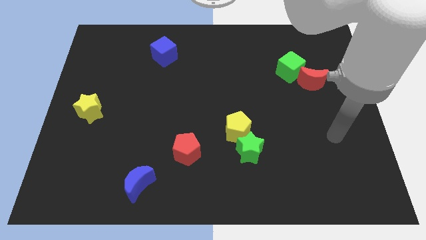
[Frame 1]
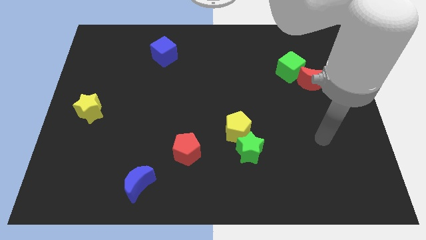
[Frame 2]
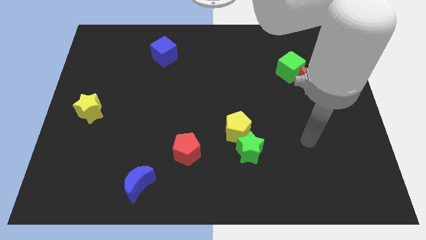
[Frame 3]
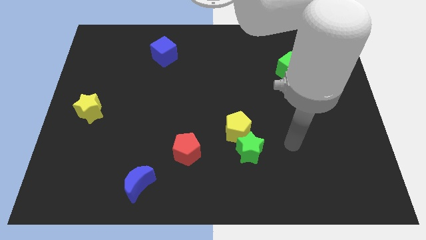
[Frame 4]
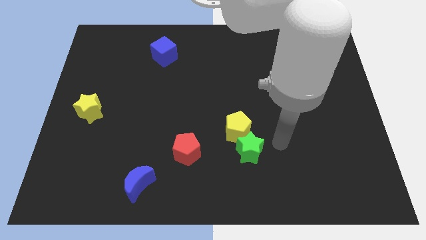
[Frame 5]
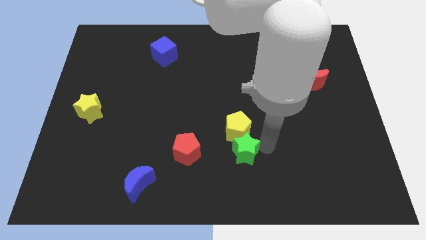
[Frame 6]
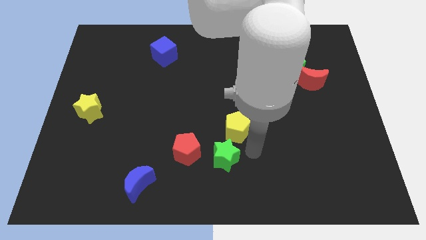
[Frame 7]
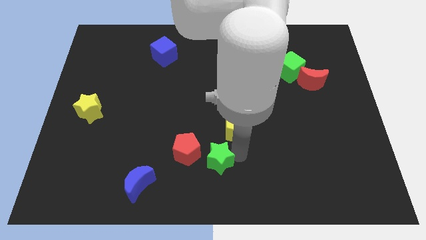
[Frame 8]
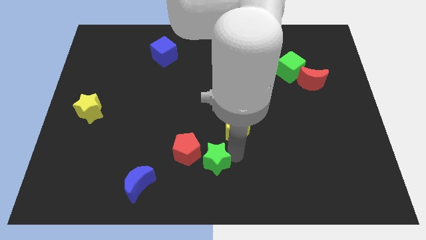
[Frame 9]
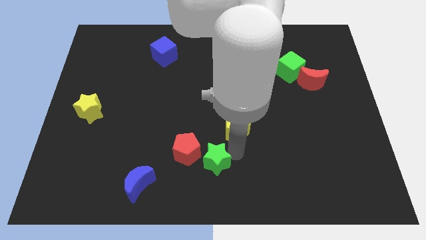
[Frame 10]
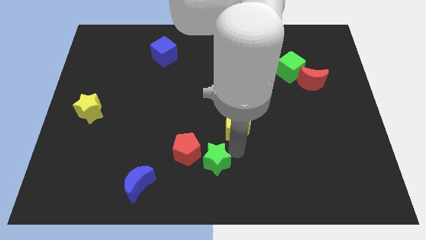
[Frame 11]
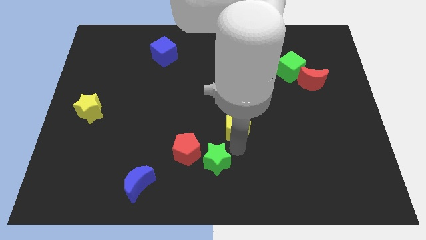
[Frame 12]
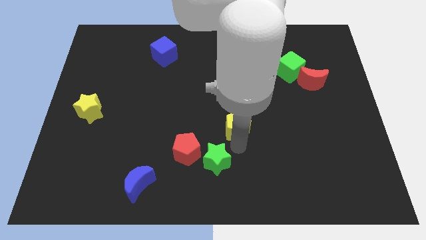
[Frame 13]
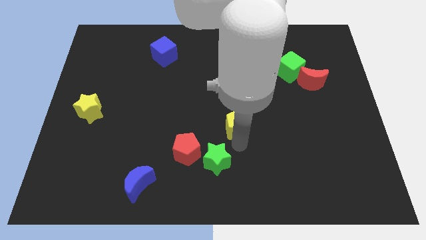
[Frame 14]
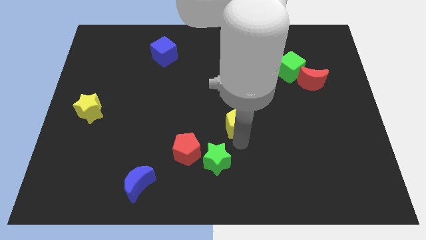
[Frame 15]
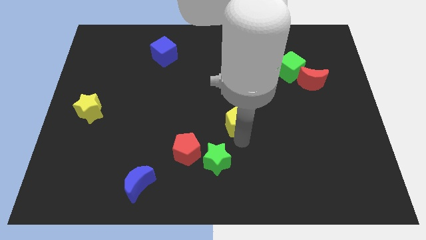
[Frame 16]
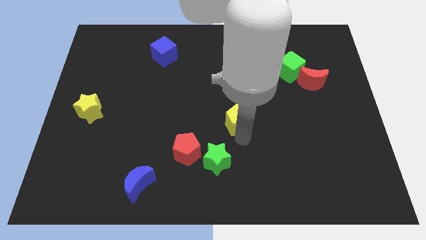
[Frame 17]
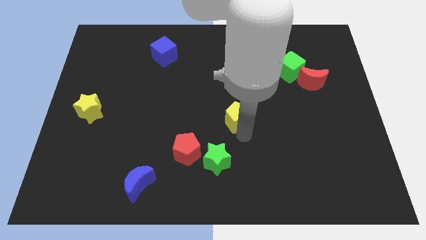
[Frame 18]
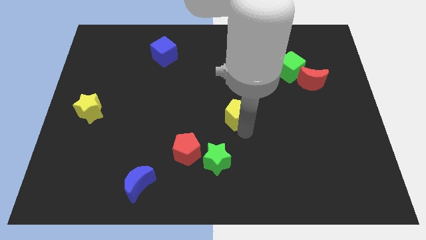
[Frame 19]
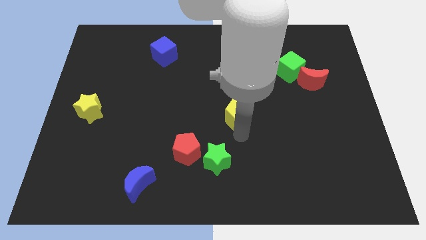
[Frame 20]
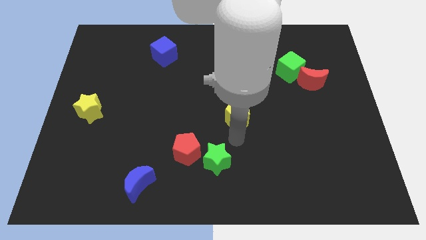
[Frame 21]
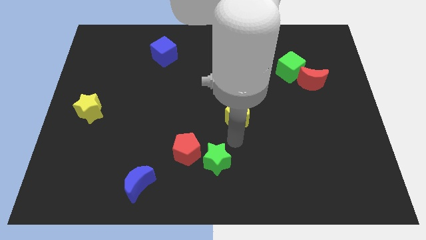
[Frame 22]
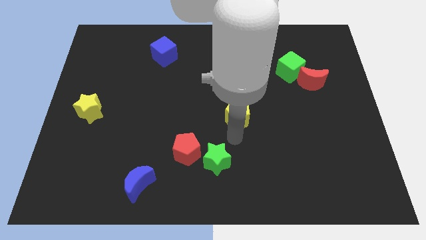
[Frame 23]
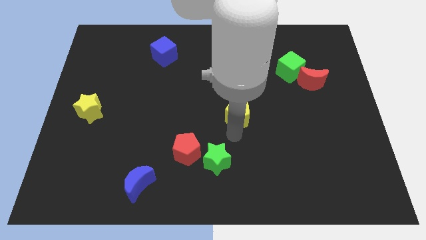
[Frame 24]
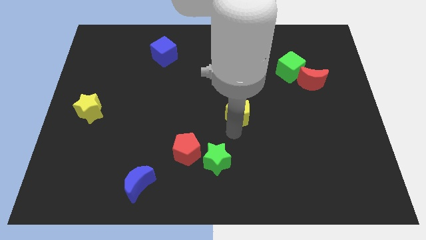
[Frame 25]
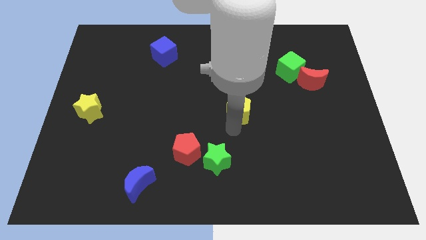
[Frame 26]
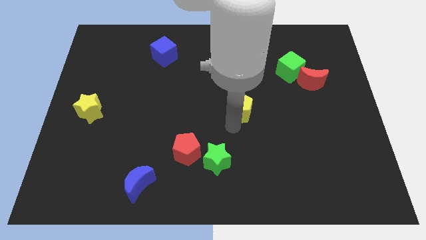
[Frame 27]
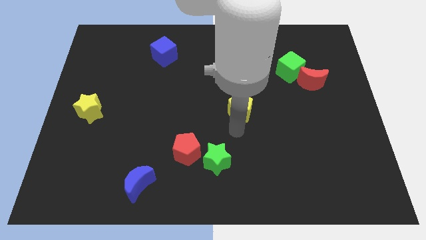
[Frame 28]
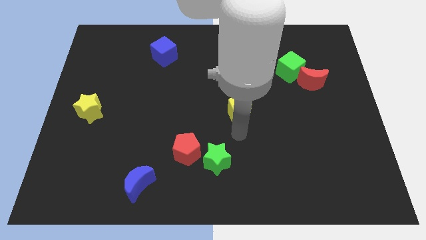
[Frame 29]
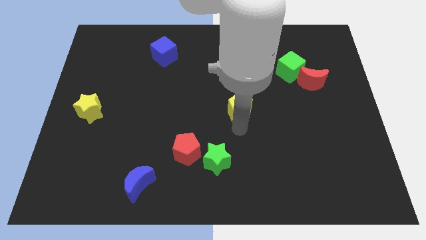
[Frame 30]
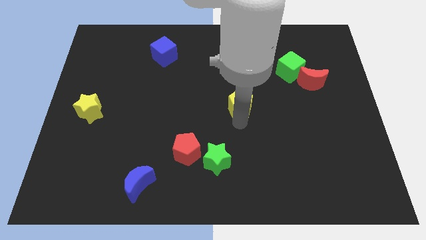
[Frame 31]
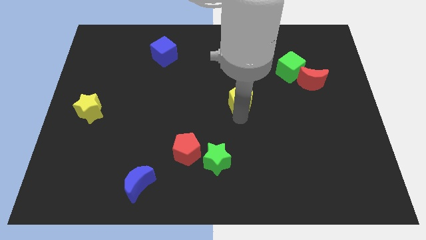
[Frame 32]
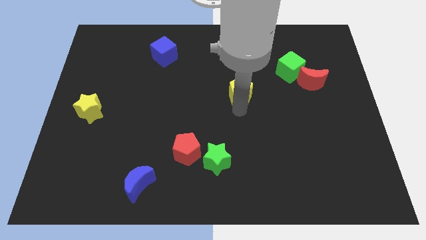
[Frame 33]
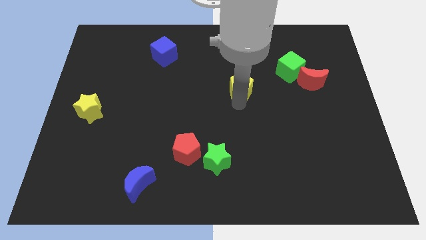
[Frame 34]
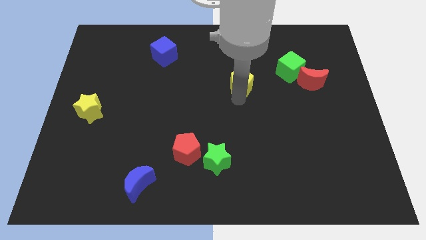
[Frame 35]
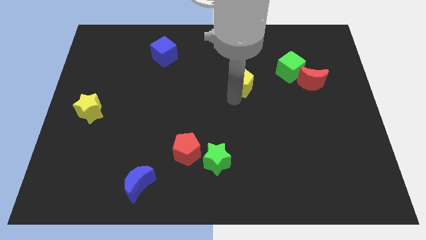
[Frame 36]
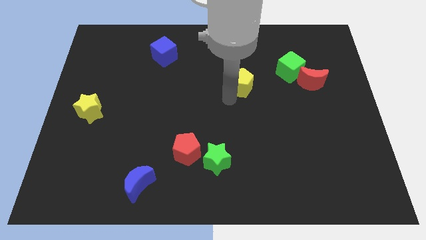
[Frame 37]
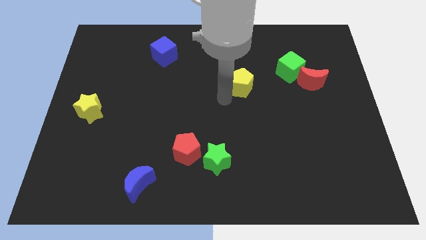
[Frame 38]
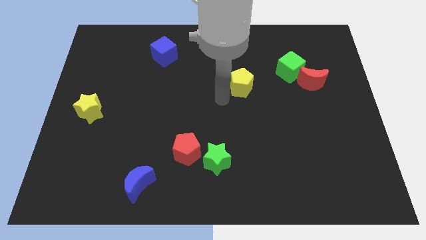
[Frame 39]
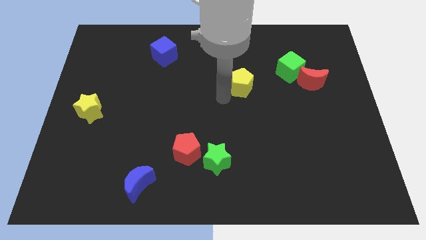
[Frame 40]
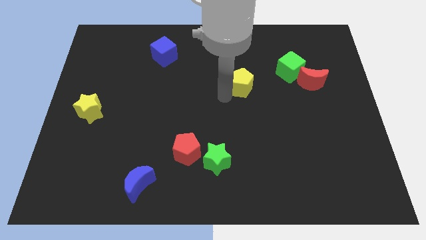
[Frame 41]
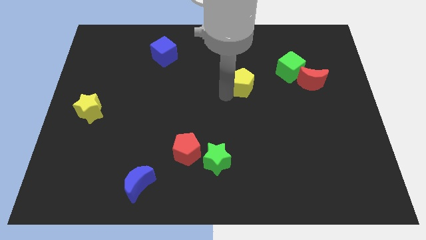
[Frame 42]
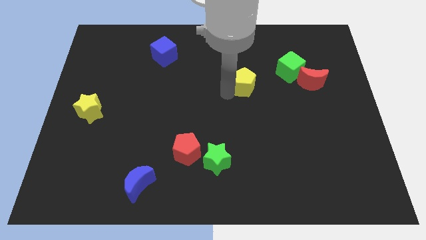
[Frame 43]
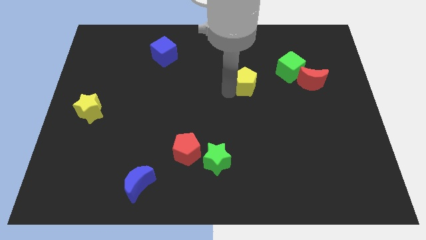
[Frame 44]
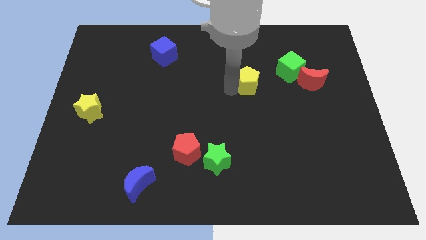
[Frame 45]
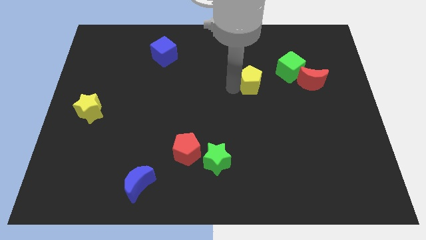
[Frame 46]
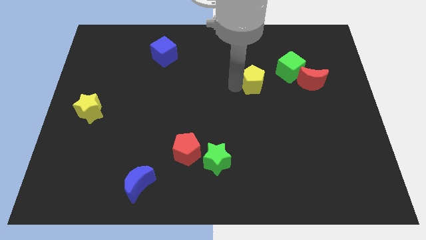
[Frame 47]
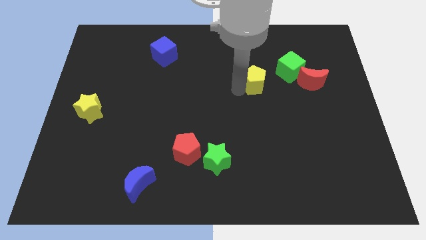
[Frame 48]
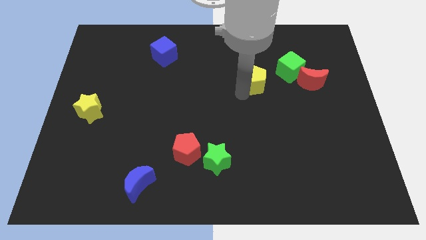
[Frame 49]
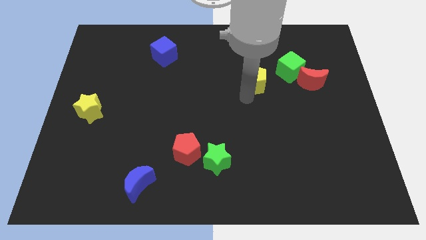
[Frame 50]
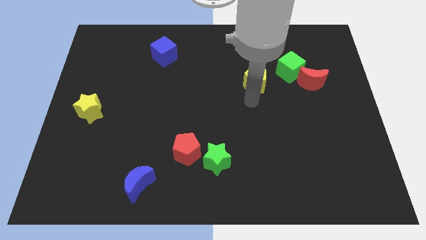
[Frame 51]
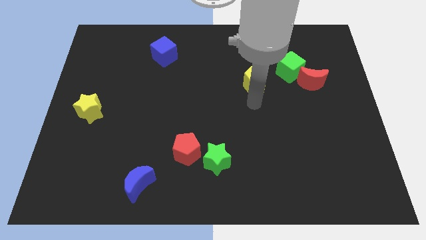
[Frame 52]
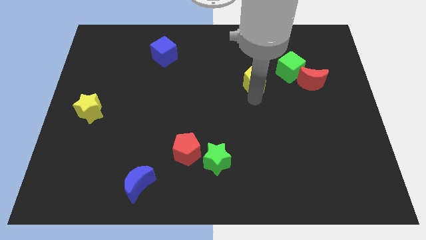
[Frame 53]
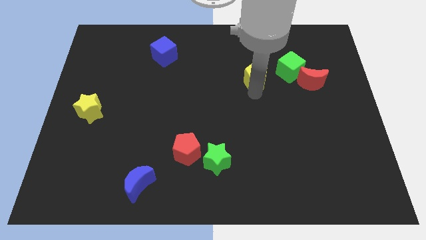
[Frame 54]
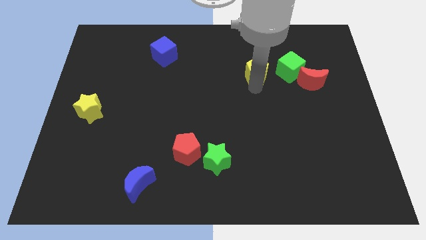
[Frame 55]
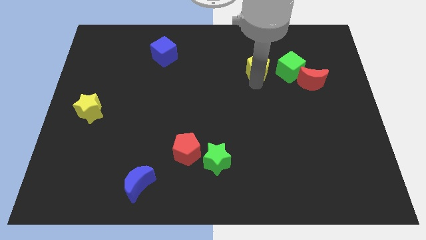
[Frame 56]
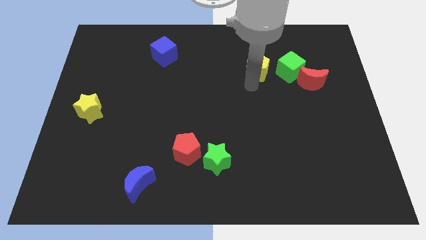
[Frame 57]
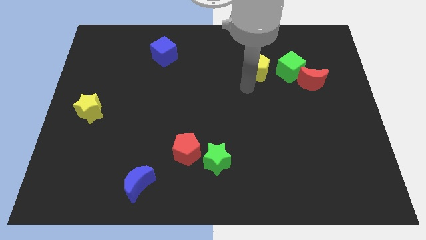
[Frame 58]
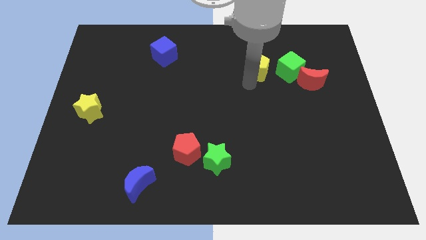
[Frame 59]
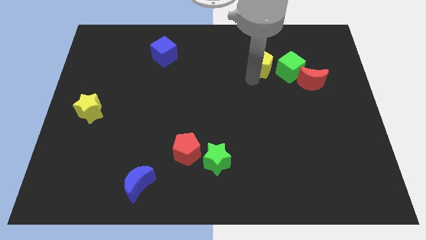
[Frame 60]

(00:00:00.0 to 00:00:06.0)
slide the yellow pentagon to the top left of the green cube

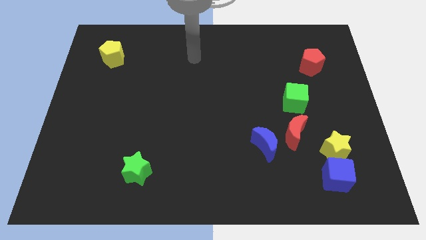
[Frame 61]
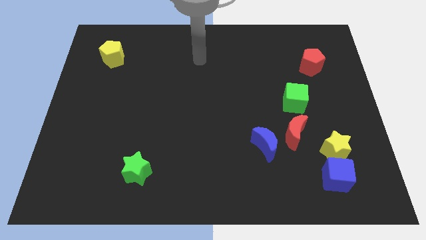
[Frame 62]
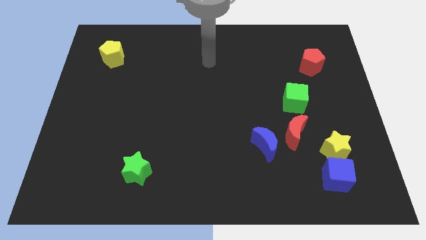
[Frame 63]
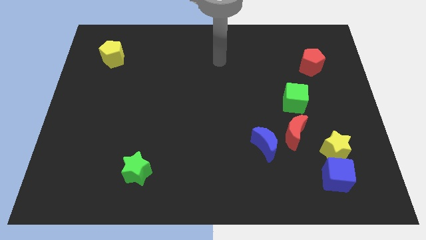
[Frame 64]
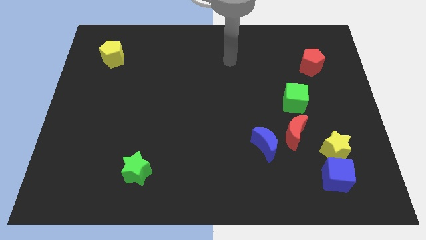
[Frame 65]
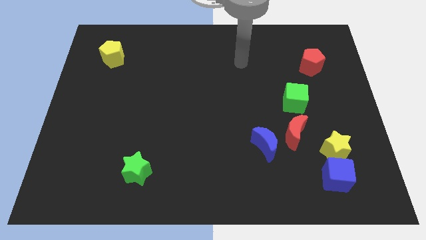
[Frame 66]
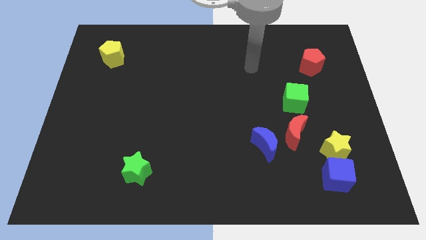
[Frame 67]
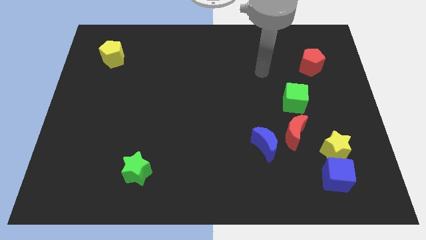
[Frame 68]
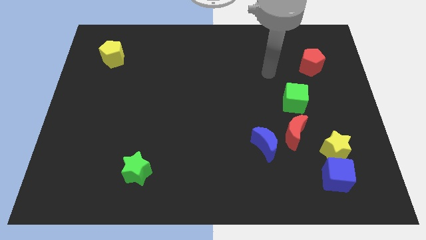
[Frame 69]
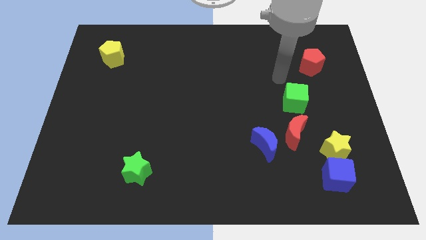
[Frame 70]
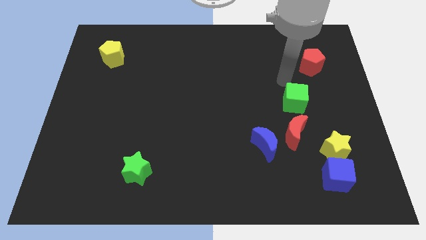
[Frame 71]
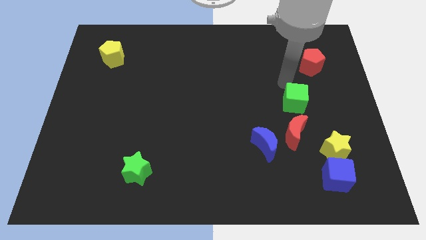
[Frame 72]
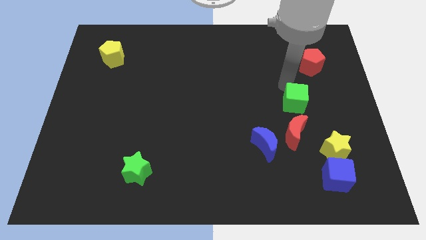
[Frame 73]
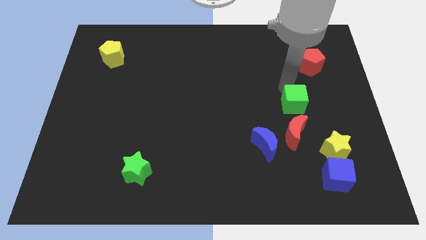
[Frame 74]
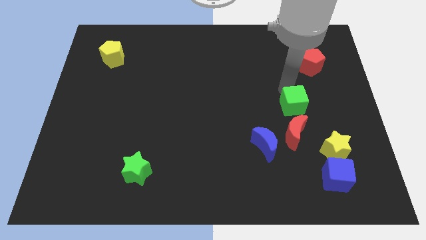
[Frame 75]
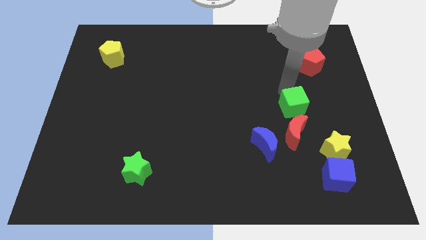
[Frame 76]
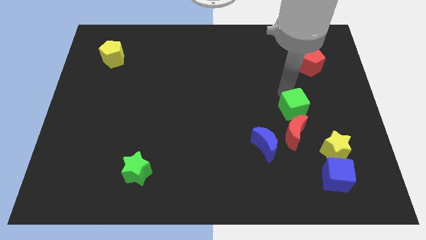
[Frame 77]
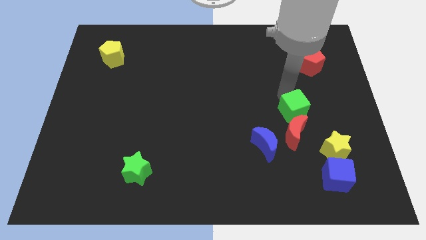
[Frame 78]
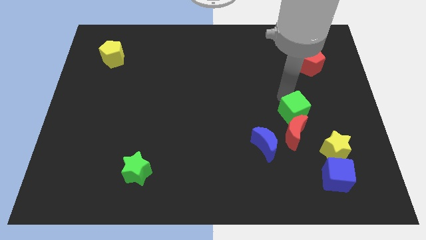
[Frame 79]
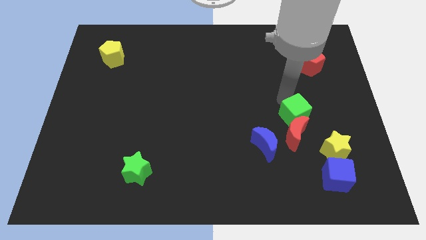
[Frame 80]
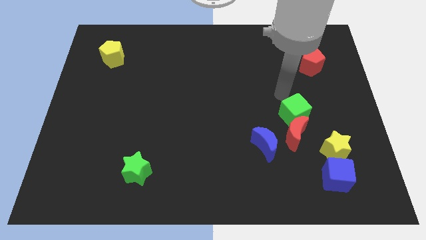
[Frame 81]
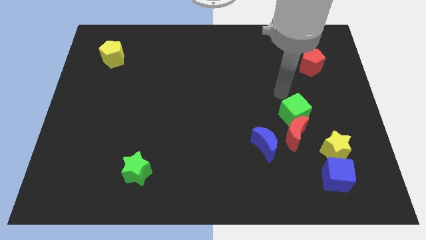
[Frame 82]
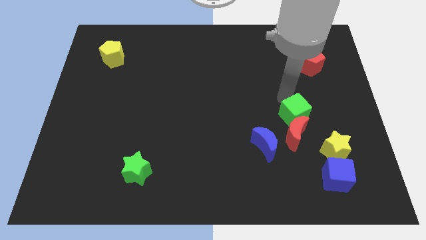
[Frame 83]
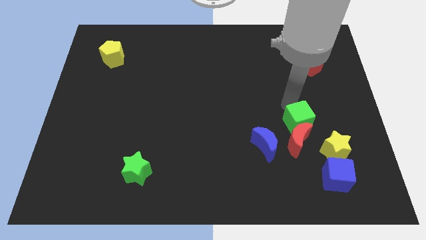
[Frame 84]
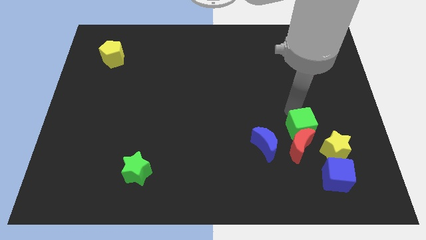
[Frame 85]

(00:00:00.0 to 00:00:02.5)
push the green cube to the right of the blue moon
